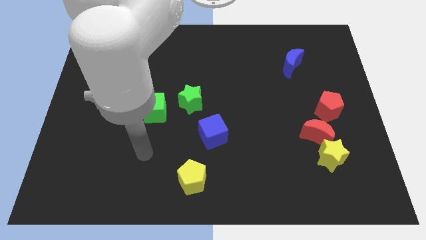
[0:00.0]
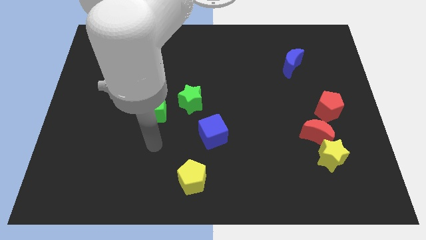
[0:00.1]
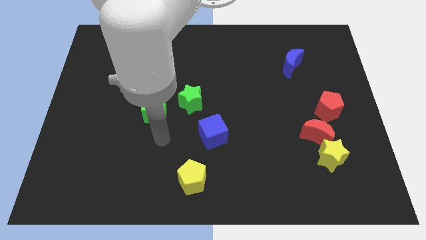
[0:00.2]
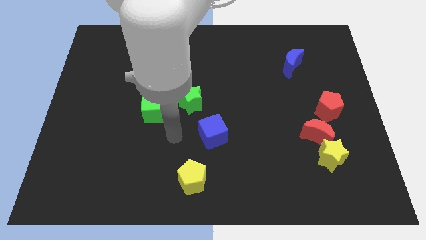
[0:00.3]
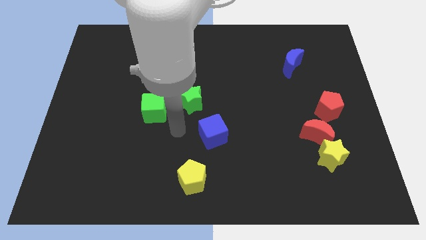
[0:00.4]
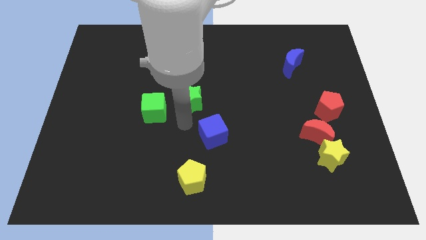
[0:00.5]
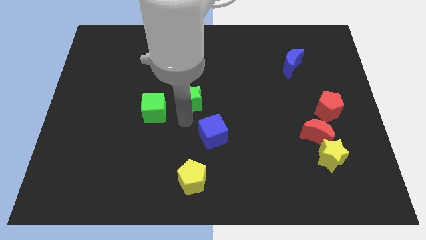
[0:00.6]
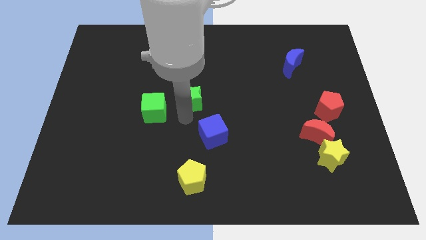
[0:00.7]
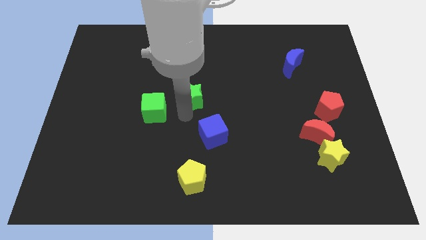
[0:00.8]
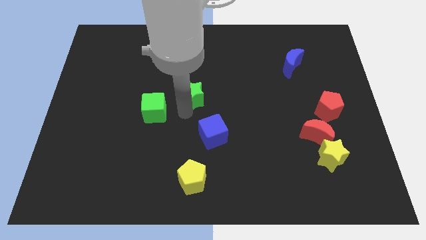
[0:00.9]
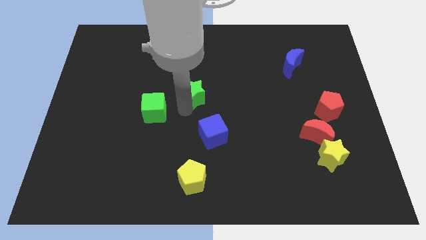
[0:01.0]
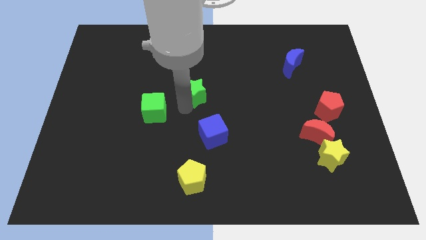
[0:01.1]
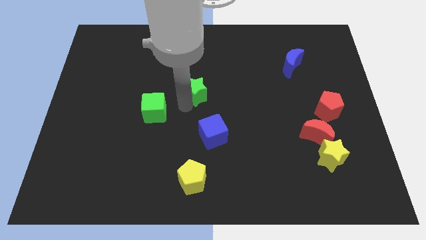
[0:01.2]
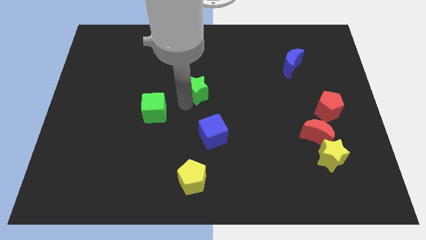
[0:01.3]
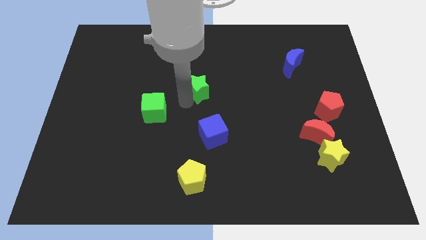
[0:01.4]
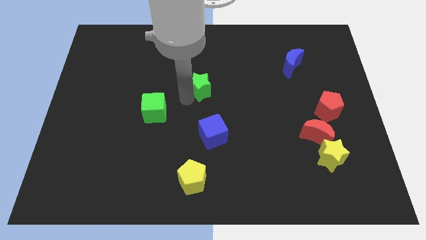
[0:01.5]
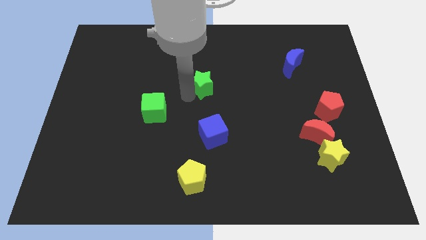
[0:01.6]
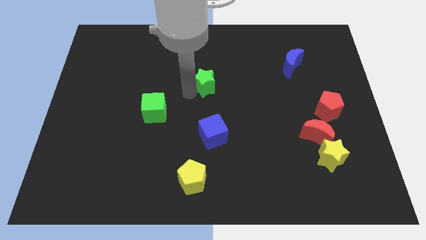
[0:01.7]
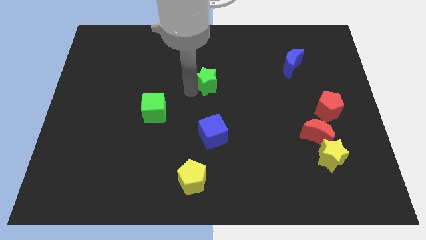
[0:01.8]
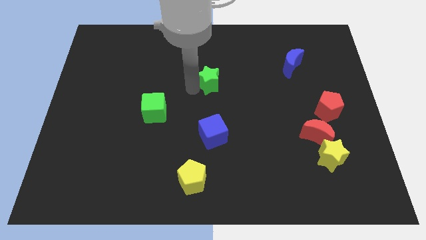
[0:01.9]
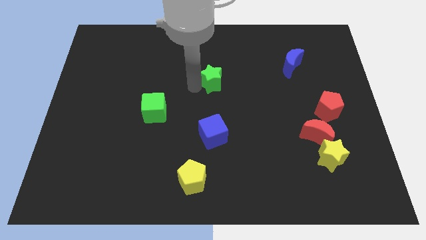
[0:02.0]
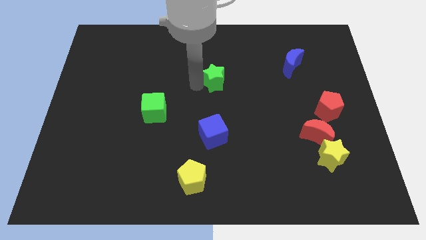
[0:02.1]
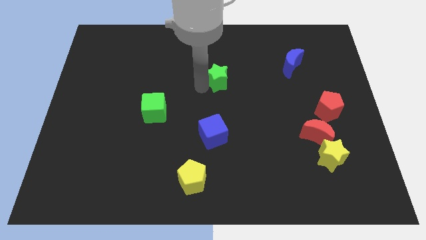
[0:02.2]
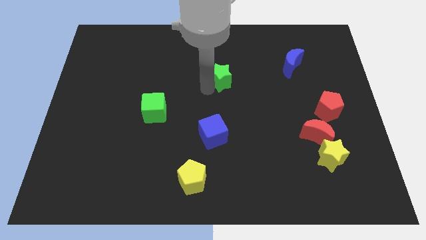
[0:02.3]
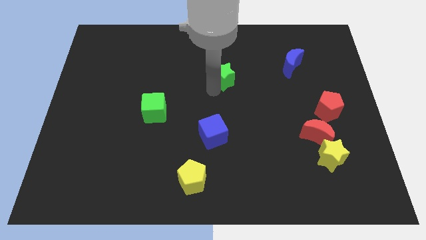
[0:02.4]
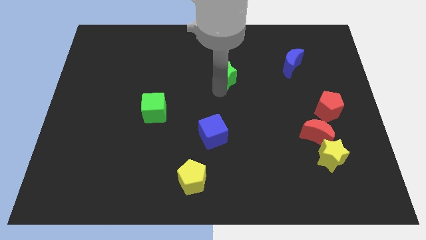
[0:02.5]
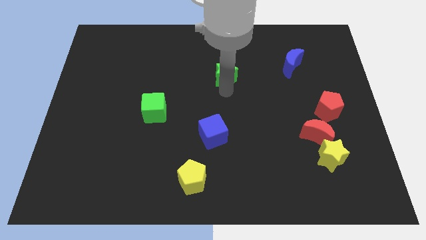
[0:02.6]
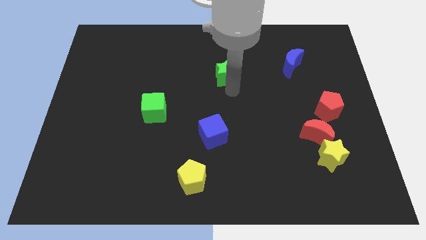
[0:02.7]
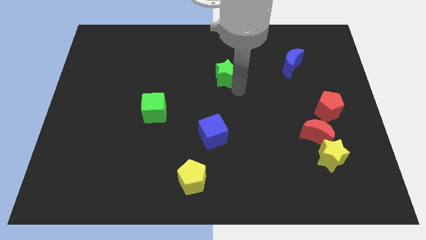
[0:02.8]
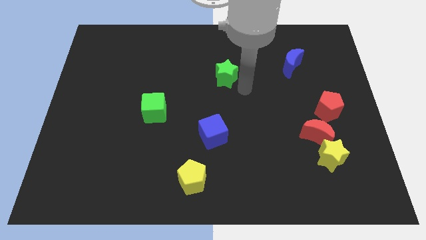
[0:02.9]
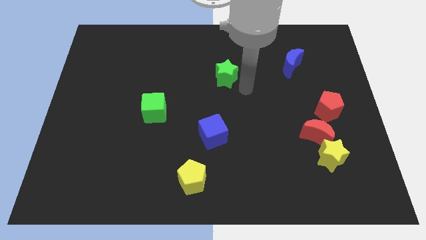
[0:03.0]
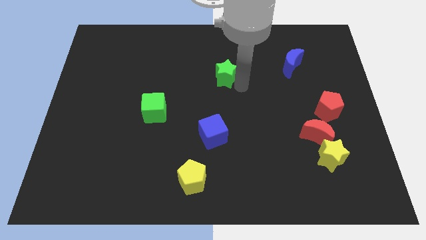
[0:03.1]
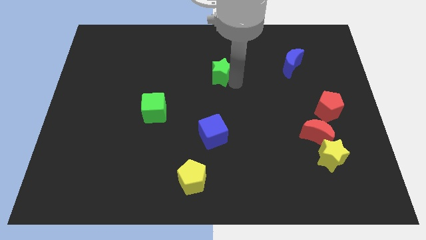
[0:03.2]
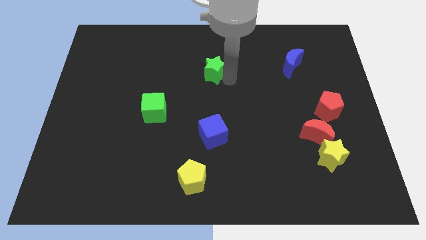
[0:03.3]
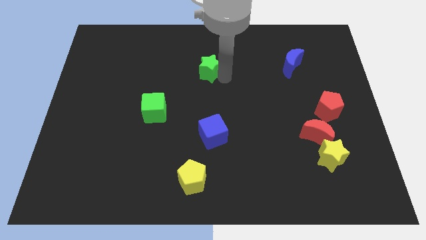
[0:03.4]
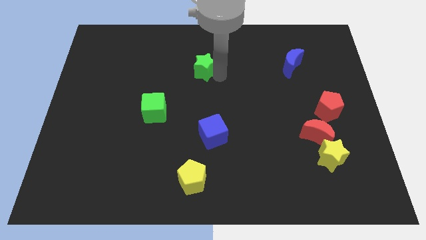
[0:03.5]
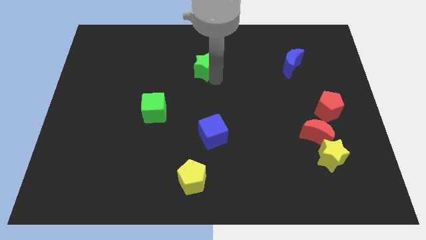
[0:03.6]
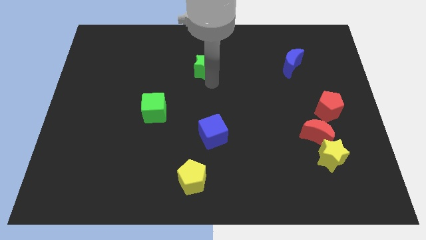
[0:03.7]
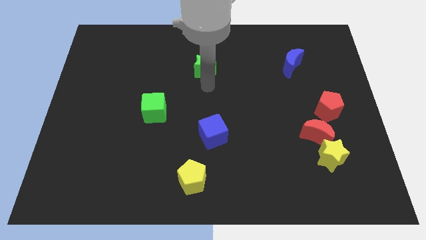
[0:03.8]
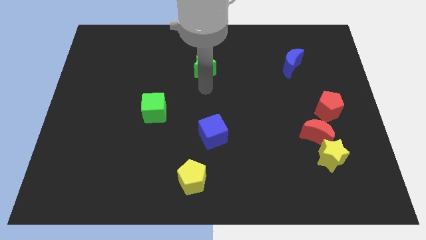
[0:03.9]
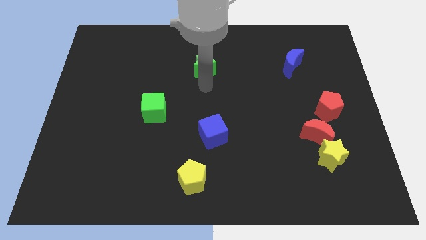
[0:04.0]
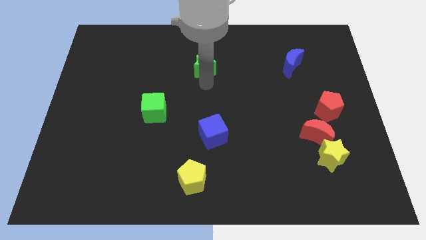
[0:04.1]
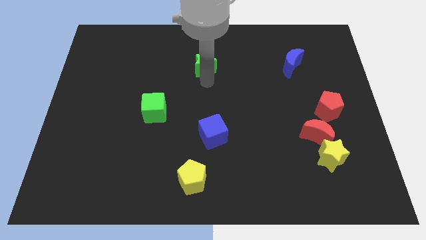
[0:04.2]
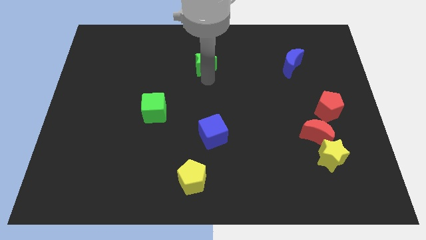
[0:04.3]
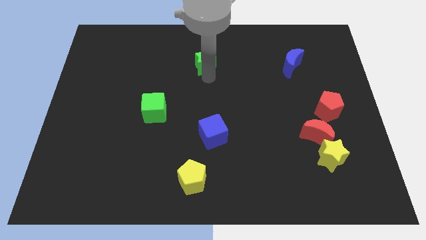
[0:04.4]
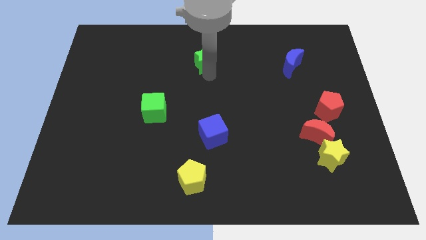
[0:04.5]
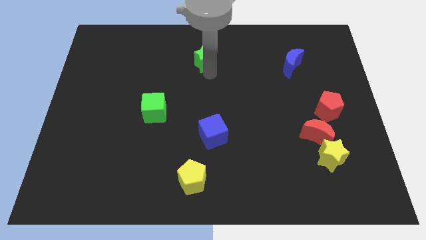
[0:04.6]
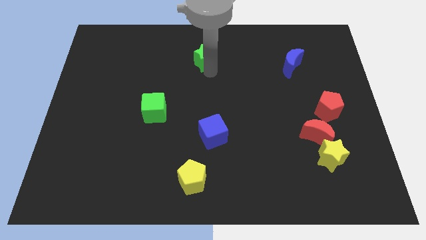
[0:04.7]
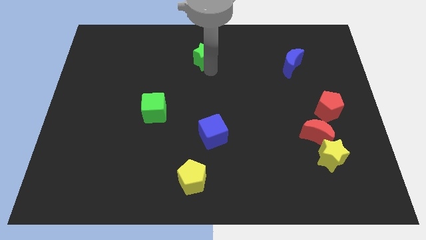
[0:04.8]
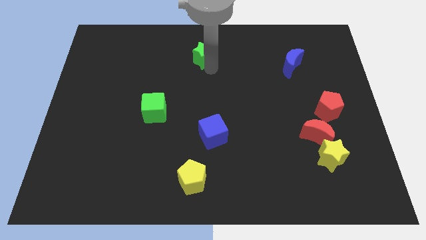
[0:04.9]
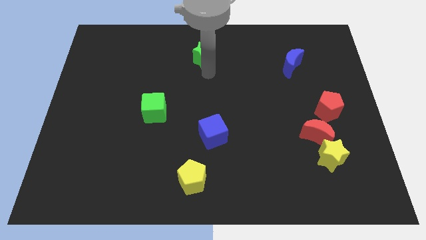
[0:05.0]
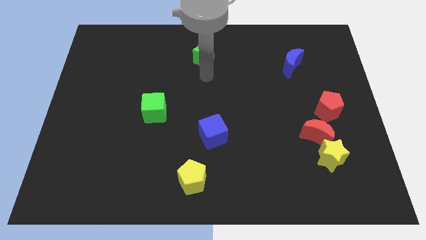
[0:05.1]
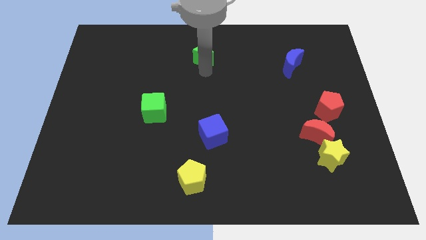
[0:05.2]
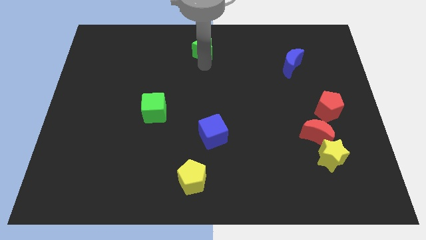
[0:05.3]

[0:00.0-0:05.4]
push the green star to the towards your base

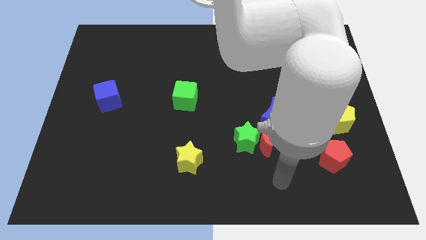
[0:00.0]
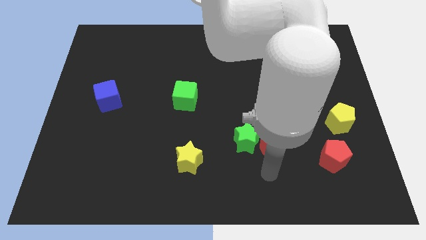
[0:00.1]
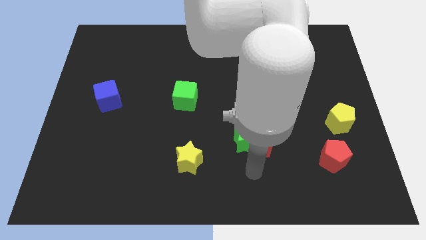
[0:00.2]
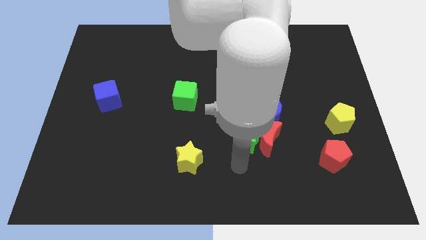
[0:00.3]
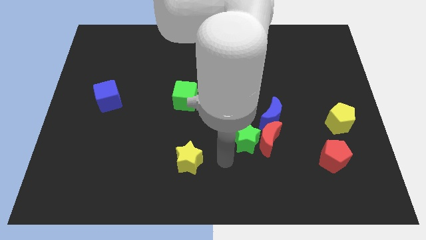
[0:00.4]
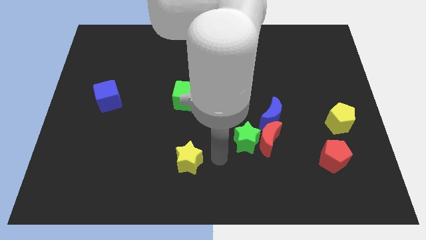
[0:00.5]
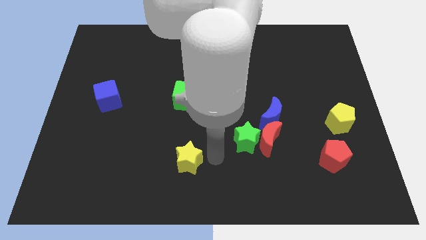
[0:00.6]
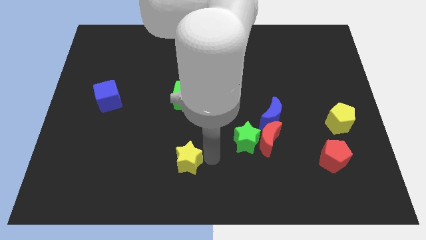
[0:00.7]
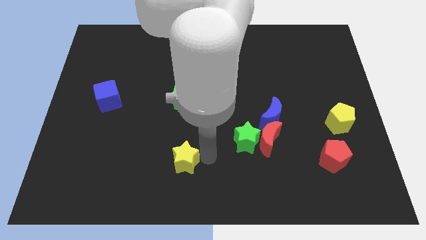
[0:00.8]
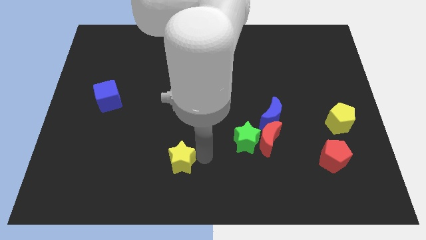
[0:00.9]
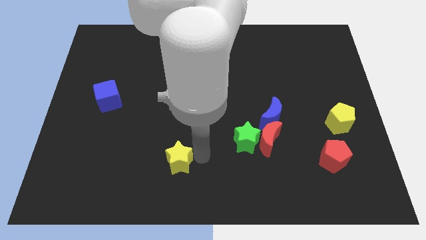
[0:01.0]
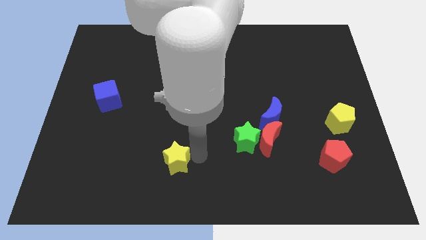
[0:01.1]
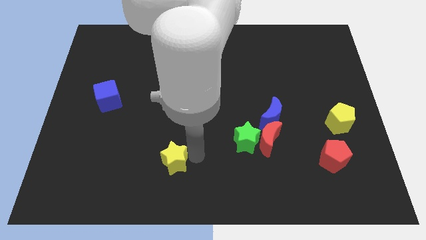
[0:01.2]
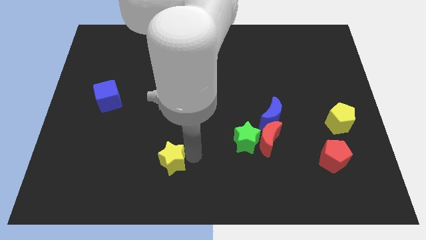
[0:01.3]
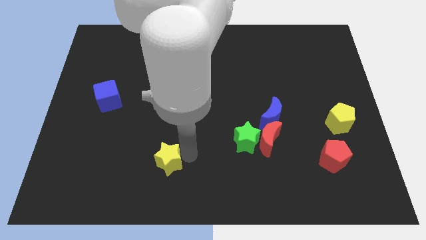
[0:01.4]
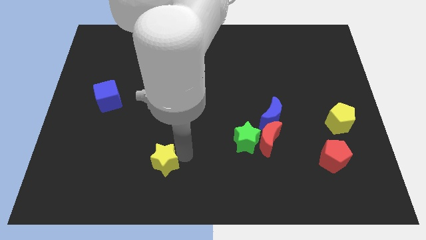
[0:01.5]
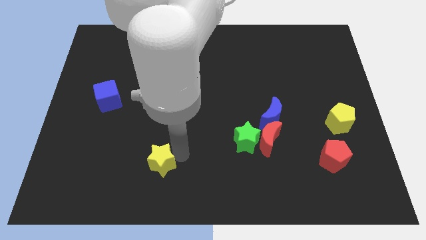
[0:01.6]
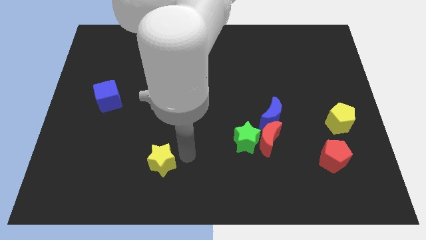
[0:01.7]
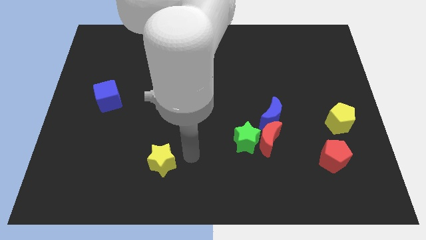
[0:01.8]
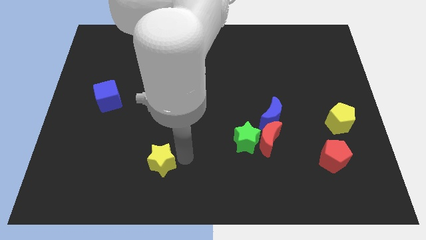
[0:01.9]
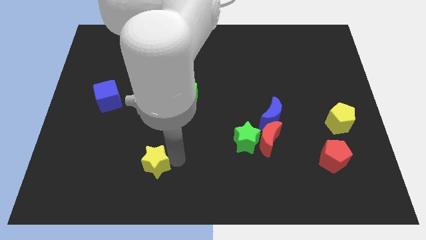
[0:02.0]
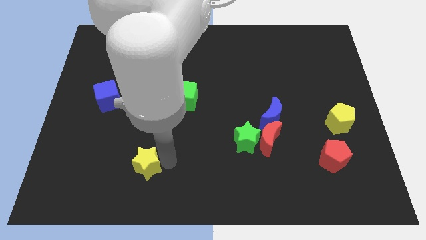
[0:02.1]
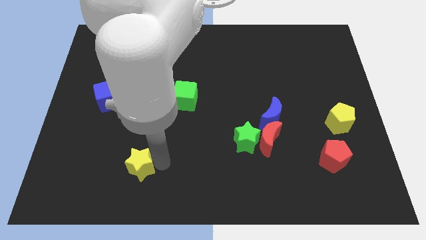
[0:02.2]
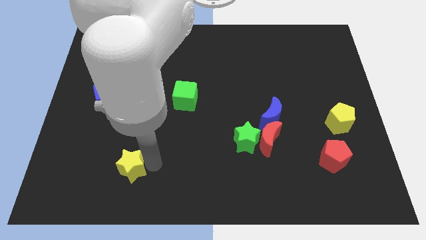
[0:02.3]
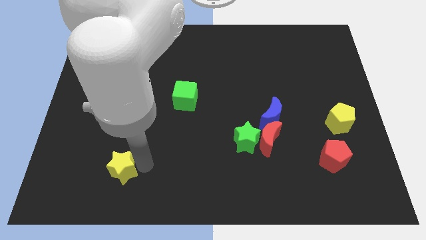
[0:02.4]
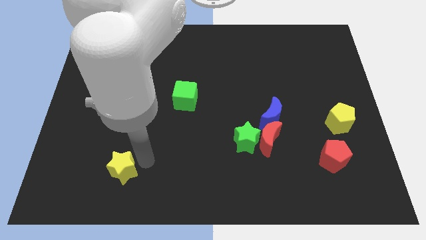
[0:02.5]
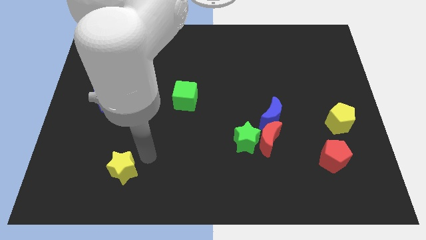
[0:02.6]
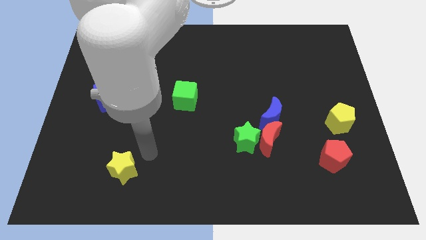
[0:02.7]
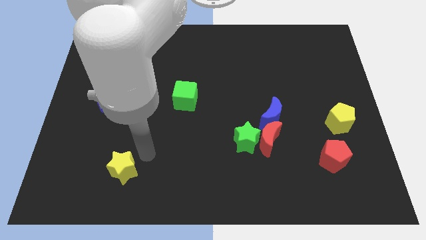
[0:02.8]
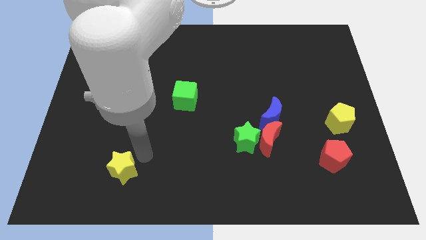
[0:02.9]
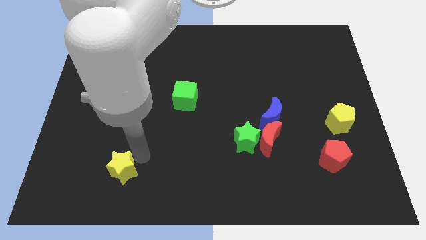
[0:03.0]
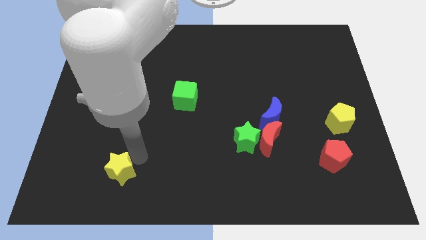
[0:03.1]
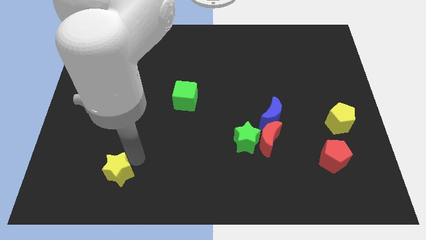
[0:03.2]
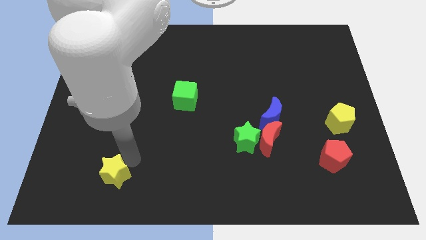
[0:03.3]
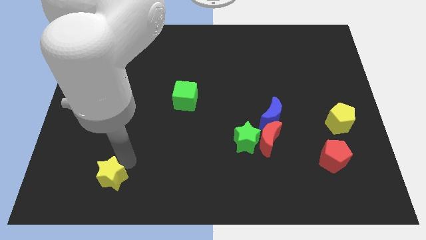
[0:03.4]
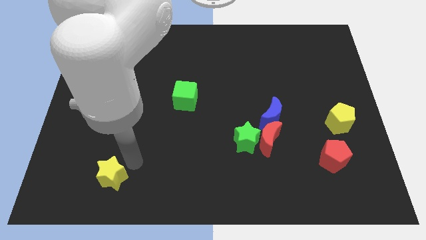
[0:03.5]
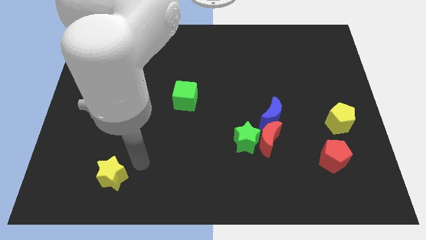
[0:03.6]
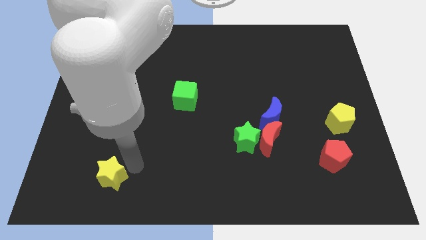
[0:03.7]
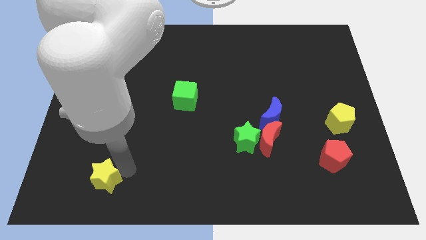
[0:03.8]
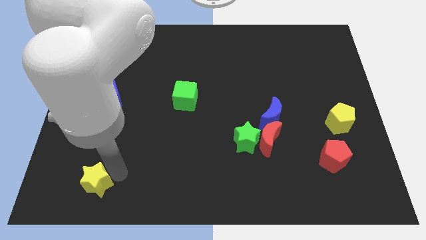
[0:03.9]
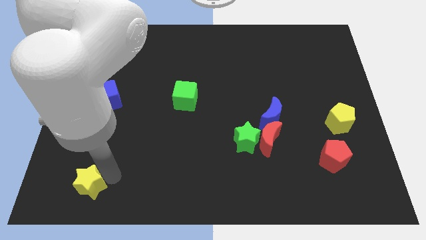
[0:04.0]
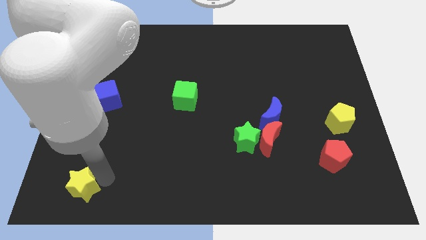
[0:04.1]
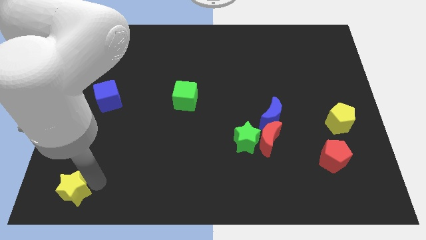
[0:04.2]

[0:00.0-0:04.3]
push the yellow star to the lower left corner
